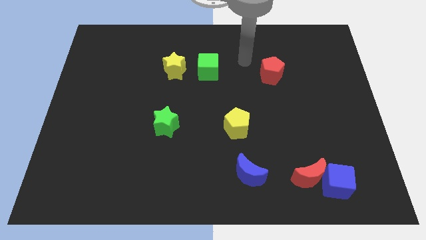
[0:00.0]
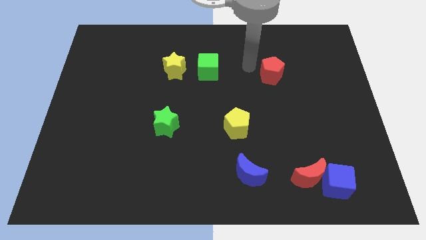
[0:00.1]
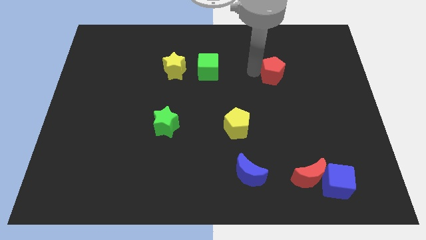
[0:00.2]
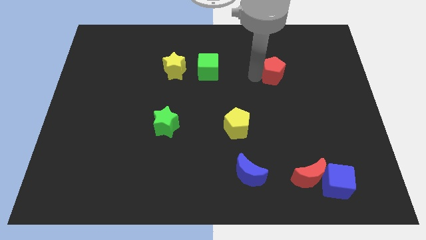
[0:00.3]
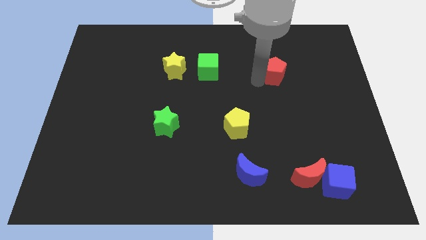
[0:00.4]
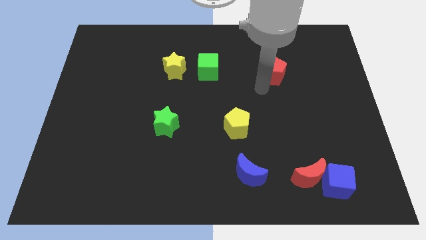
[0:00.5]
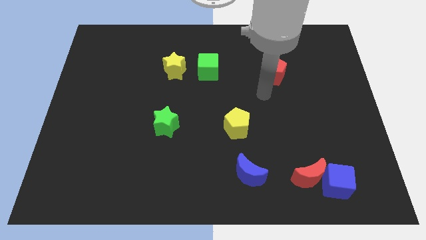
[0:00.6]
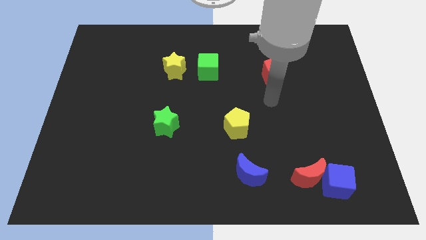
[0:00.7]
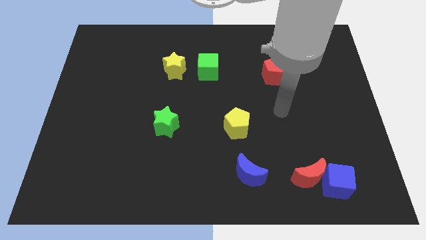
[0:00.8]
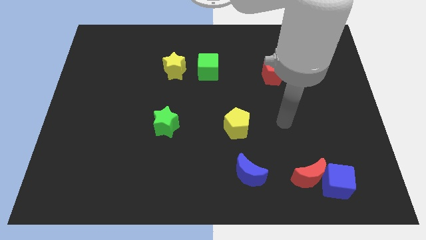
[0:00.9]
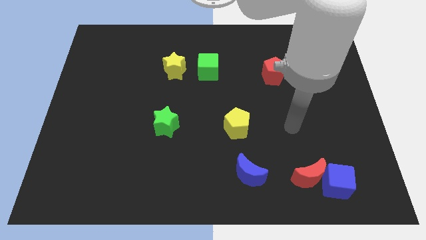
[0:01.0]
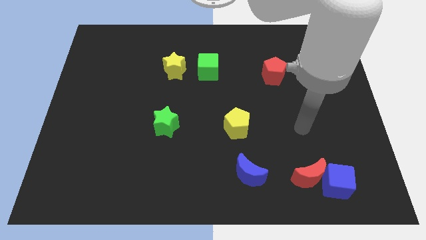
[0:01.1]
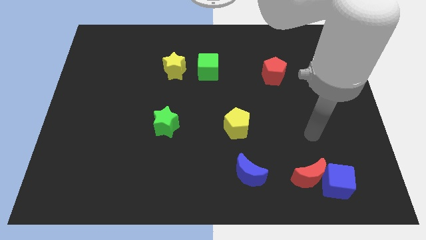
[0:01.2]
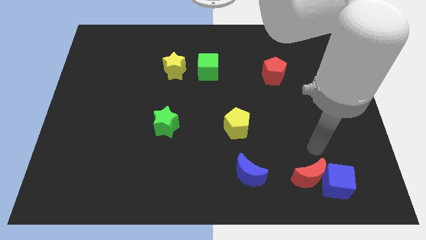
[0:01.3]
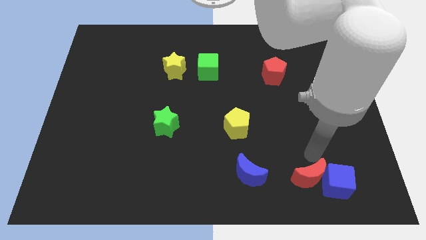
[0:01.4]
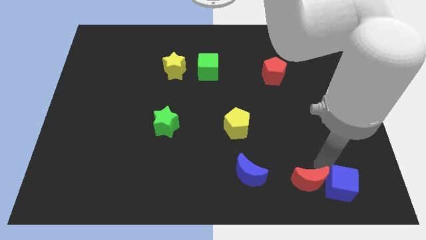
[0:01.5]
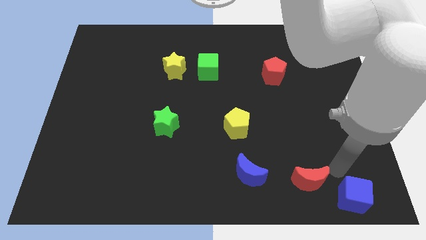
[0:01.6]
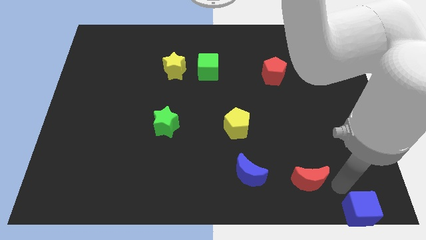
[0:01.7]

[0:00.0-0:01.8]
pull the red moon apart from the blue cube

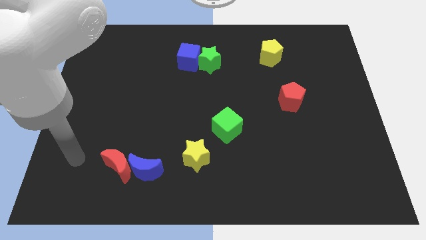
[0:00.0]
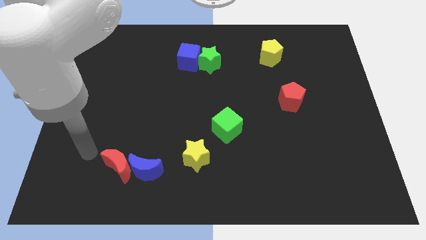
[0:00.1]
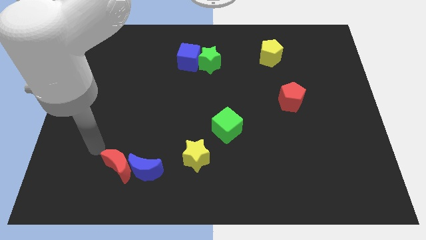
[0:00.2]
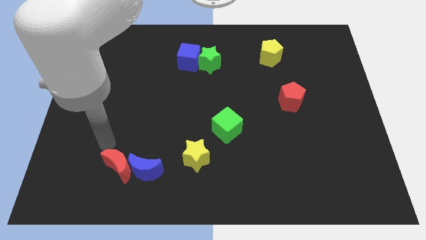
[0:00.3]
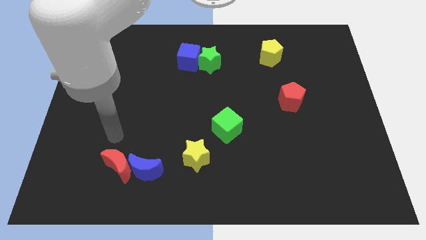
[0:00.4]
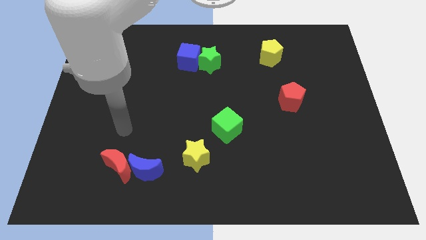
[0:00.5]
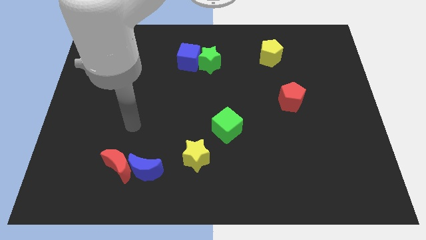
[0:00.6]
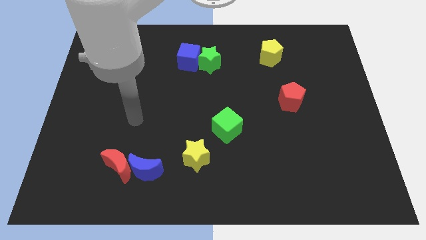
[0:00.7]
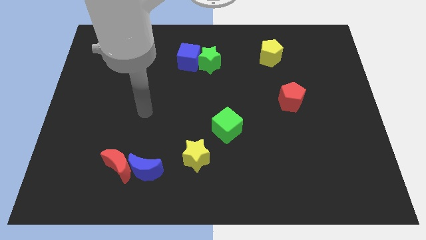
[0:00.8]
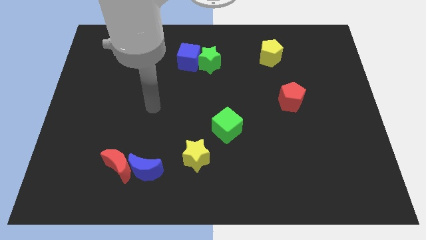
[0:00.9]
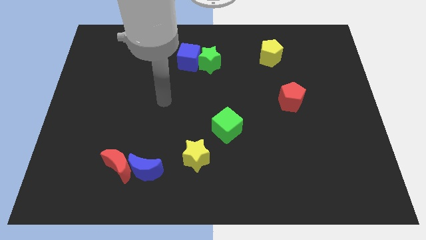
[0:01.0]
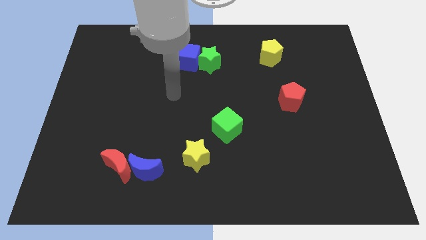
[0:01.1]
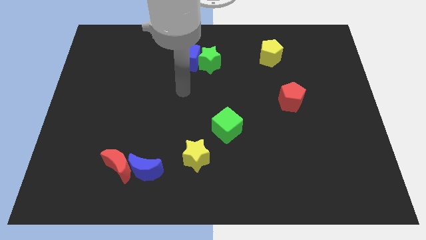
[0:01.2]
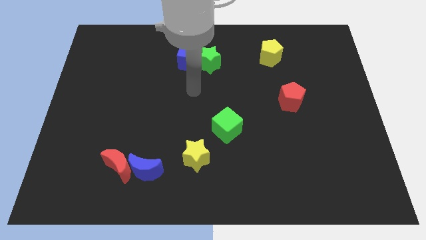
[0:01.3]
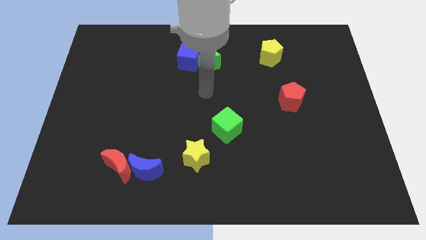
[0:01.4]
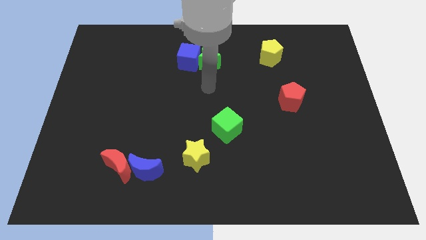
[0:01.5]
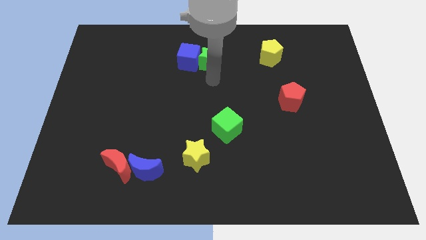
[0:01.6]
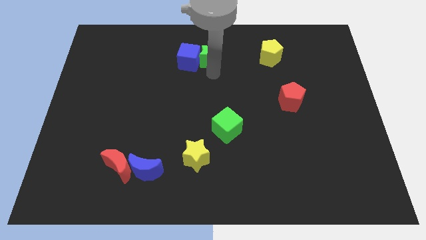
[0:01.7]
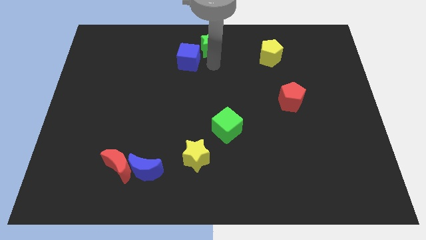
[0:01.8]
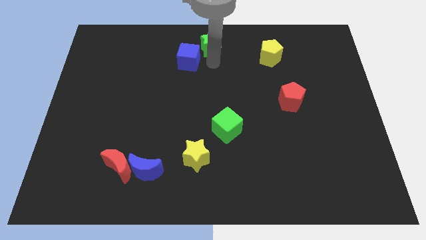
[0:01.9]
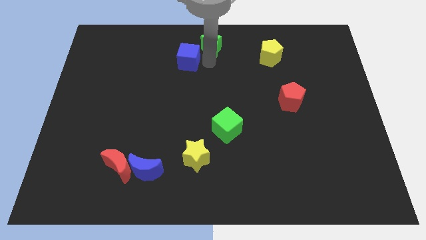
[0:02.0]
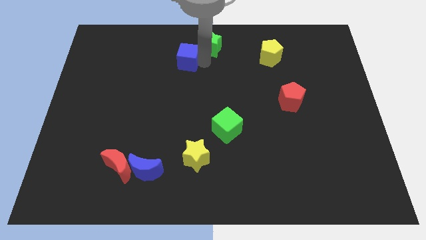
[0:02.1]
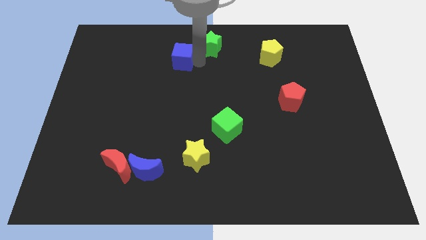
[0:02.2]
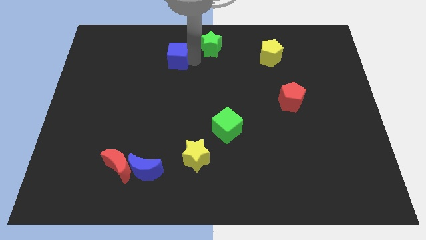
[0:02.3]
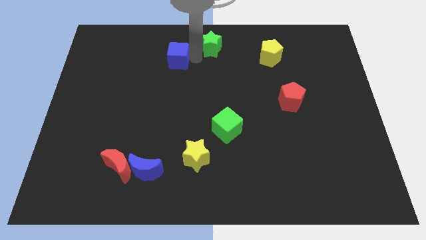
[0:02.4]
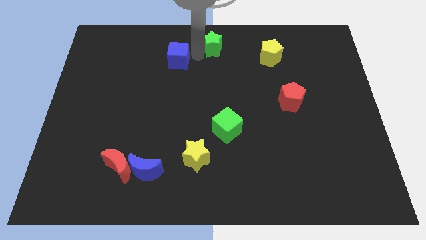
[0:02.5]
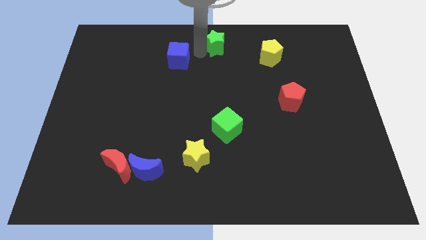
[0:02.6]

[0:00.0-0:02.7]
move the blue cube away from the green star

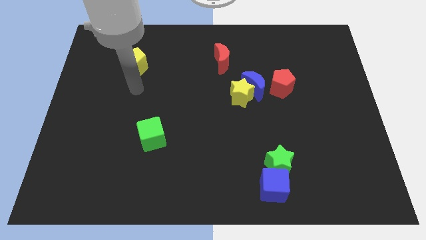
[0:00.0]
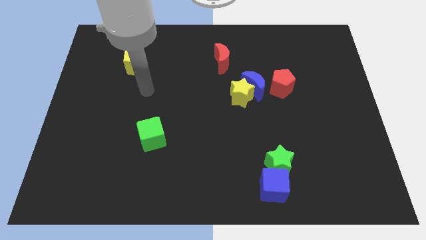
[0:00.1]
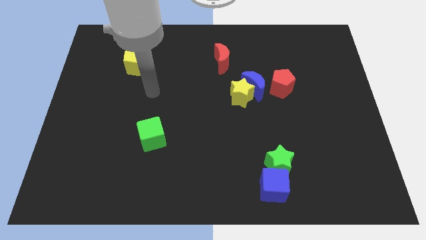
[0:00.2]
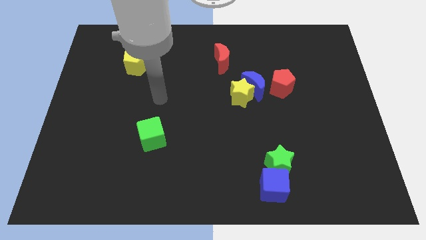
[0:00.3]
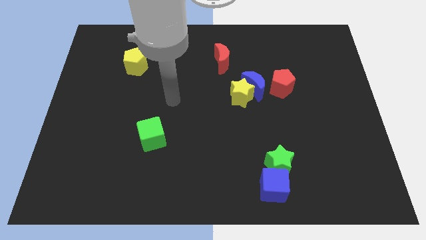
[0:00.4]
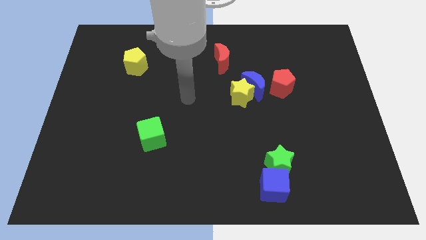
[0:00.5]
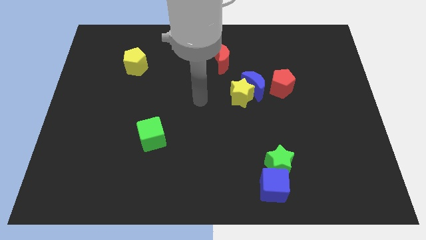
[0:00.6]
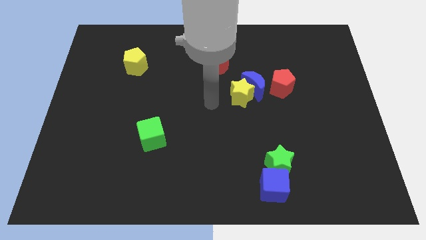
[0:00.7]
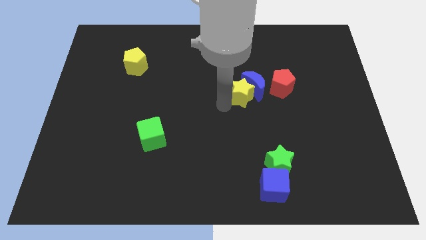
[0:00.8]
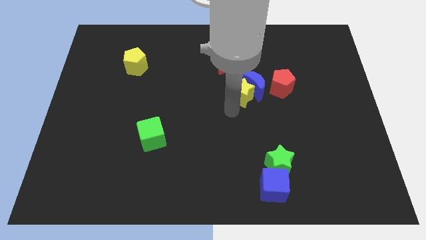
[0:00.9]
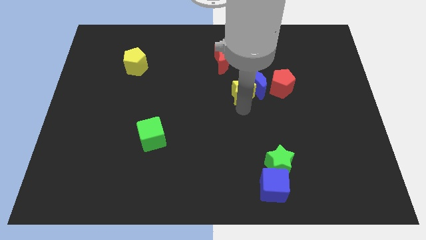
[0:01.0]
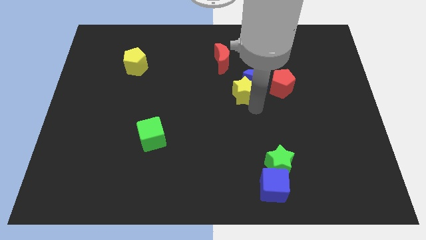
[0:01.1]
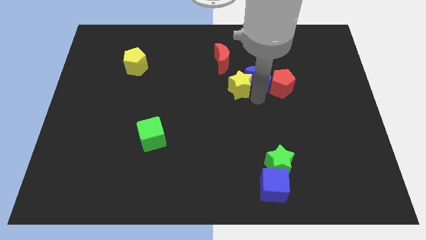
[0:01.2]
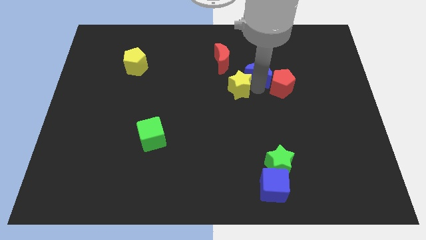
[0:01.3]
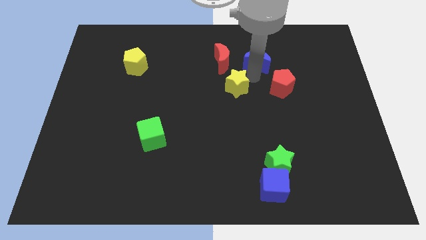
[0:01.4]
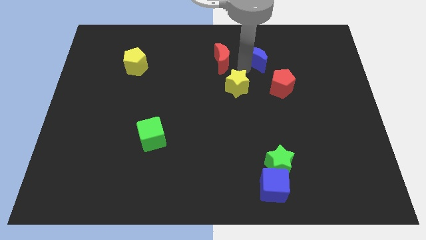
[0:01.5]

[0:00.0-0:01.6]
pull the yellow star apart from the blue moon

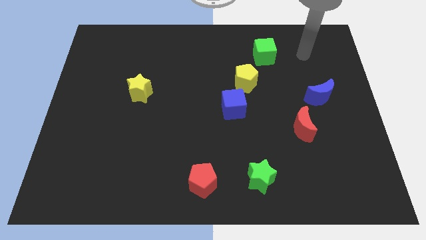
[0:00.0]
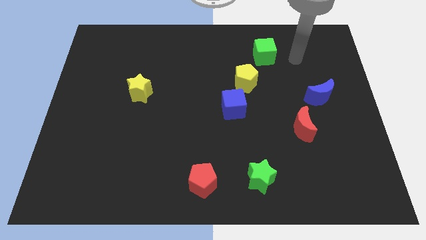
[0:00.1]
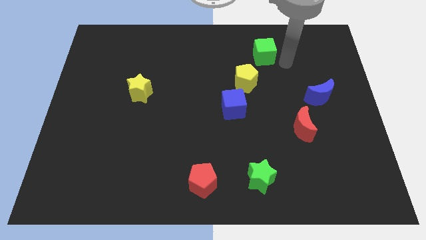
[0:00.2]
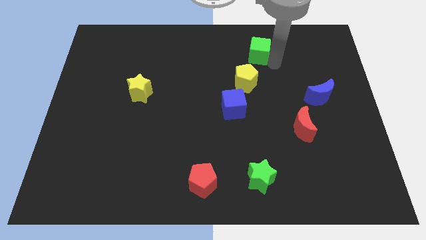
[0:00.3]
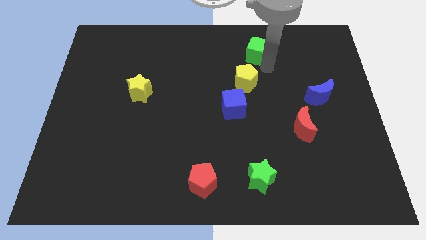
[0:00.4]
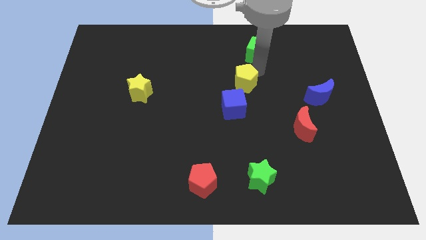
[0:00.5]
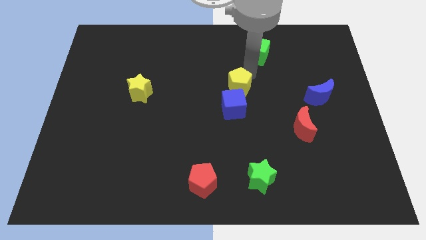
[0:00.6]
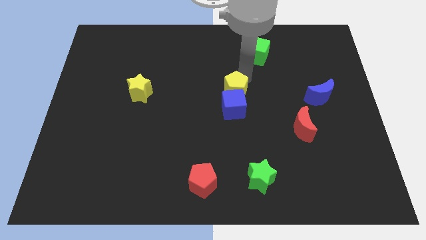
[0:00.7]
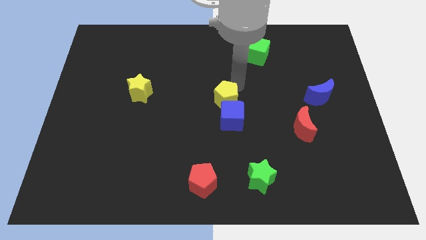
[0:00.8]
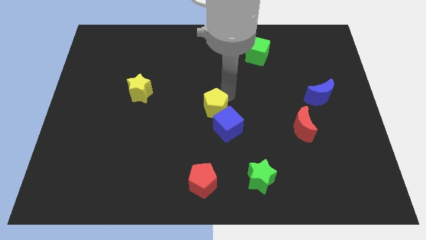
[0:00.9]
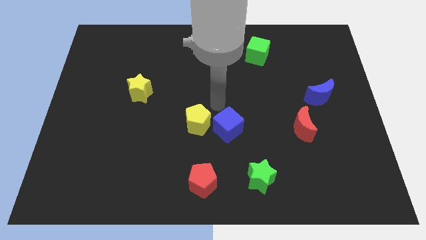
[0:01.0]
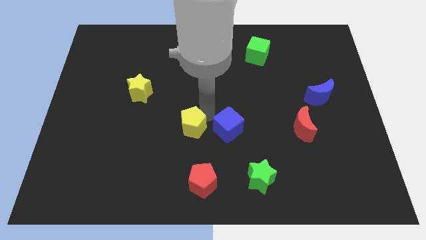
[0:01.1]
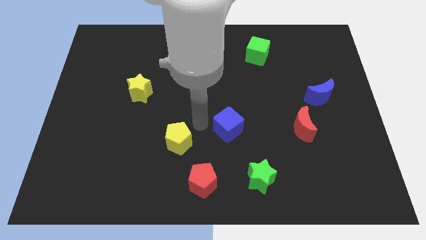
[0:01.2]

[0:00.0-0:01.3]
separate the blue cube from the yellow pentagon

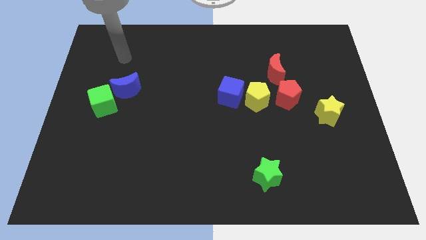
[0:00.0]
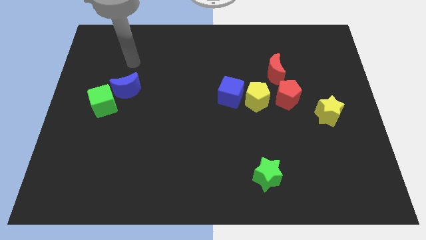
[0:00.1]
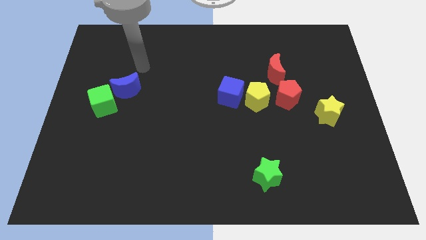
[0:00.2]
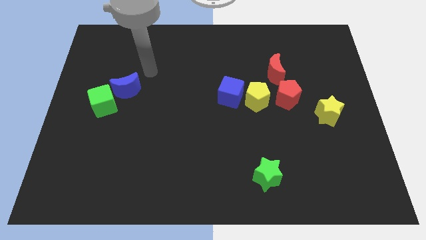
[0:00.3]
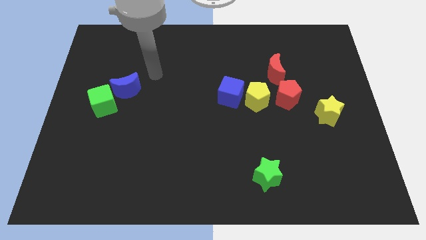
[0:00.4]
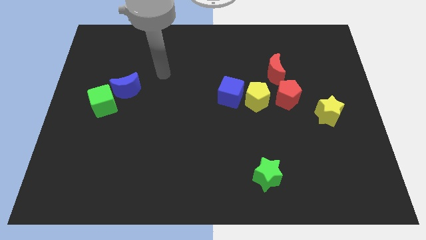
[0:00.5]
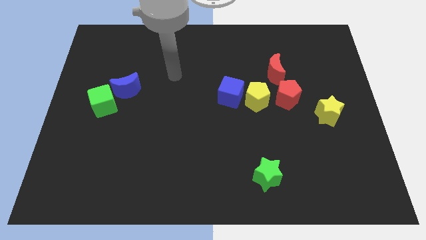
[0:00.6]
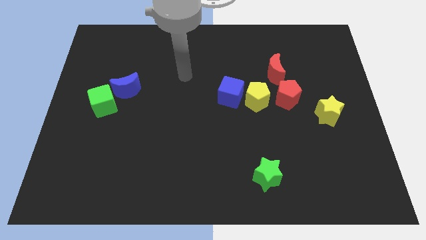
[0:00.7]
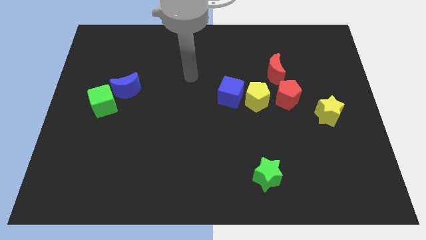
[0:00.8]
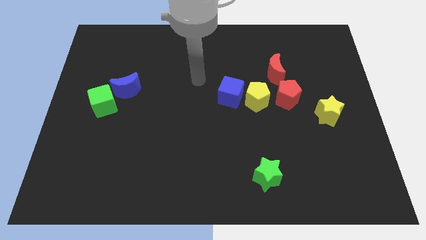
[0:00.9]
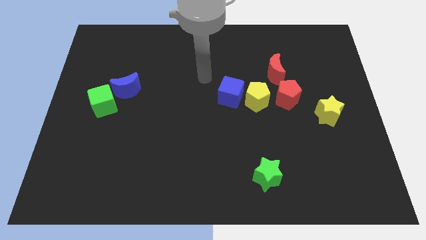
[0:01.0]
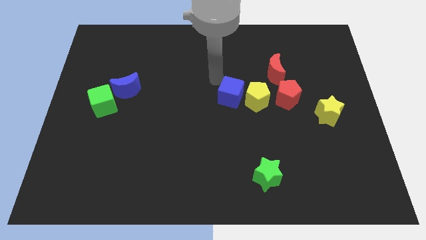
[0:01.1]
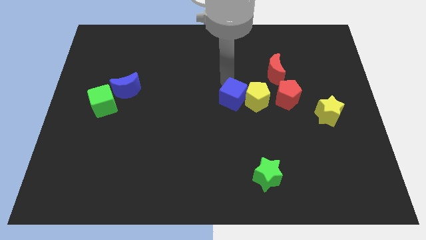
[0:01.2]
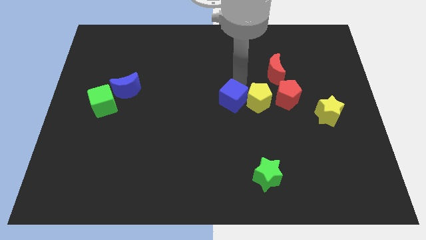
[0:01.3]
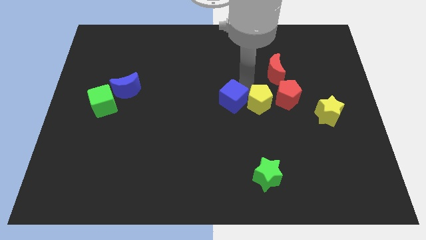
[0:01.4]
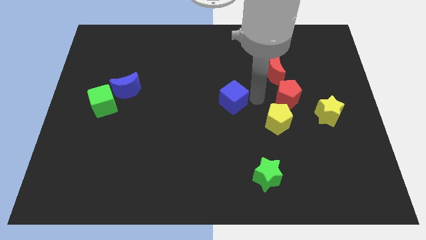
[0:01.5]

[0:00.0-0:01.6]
pull the blue cube apart from the yellow pentagon

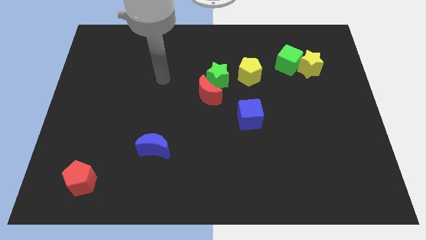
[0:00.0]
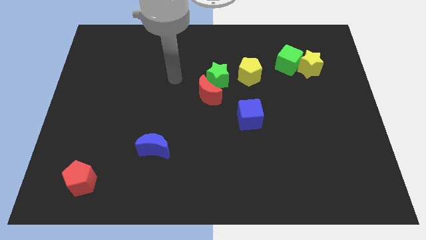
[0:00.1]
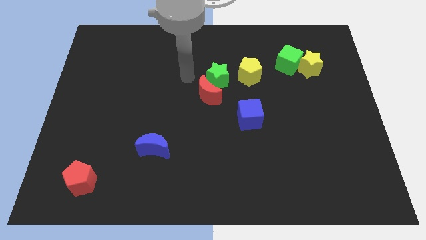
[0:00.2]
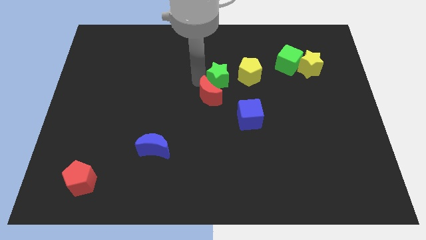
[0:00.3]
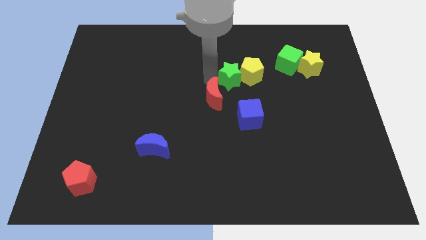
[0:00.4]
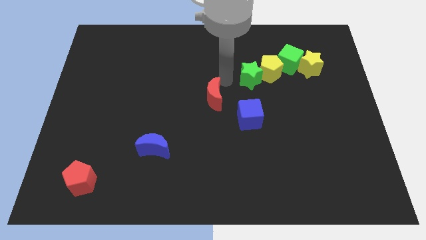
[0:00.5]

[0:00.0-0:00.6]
move the red moon away from the green star
